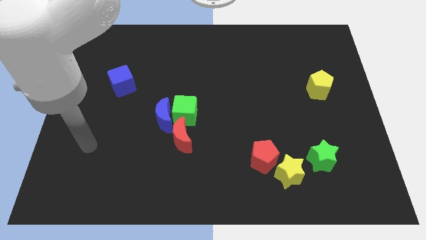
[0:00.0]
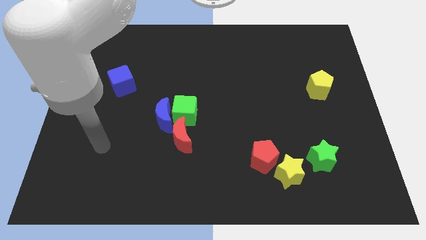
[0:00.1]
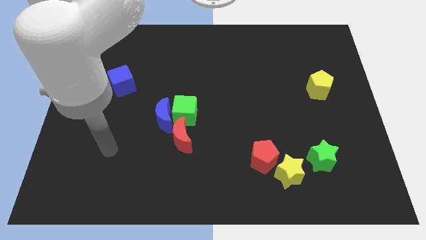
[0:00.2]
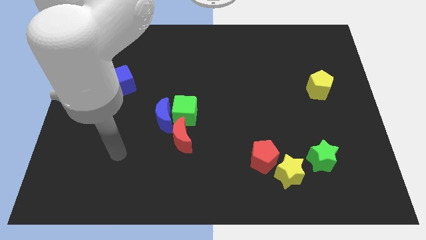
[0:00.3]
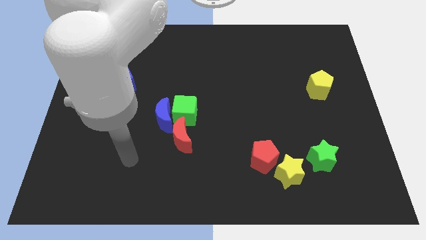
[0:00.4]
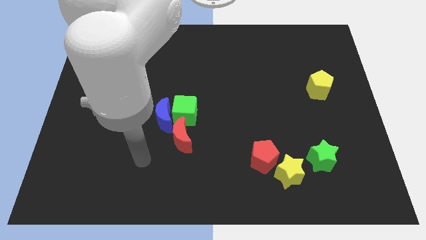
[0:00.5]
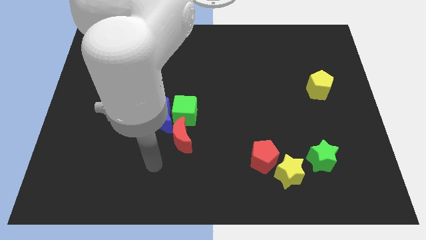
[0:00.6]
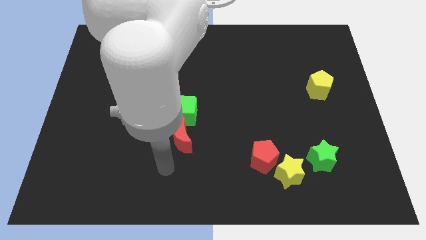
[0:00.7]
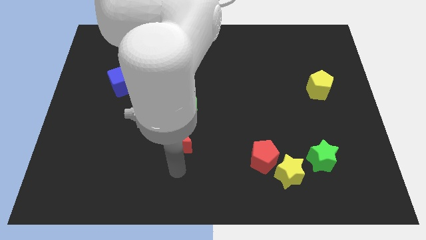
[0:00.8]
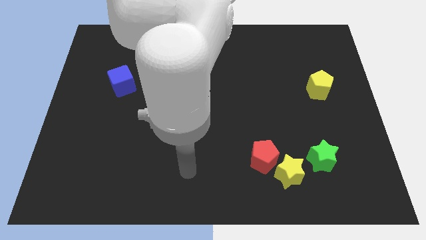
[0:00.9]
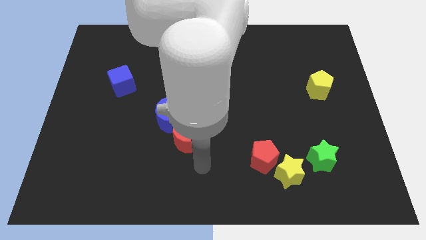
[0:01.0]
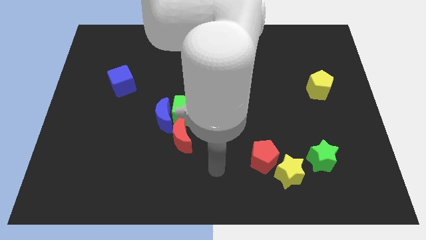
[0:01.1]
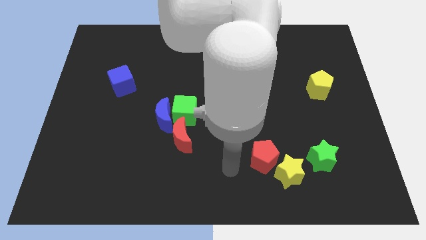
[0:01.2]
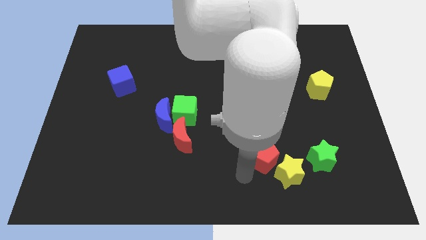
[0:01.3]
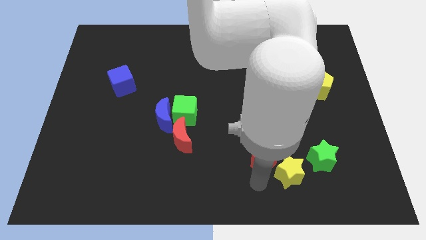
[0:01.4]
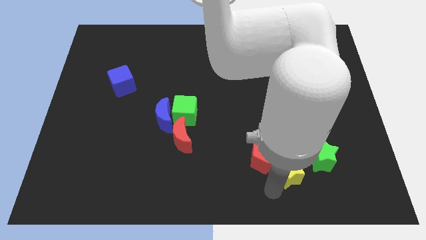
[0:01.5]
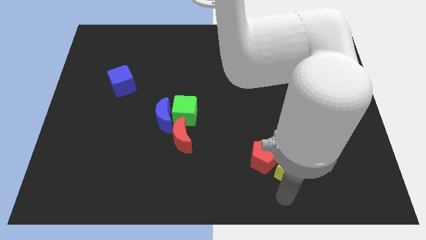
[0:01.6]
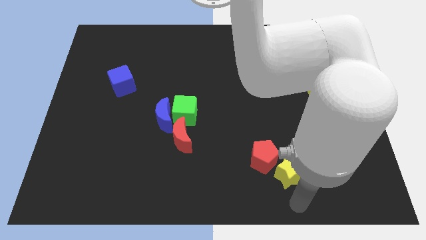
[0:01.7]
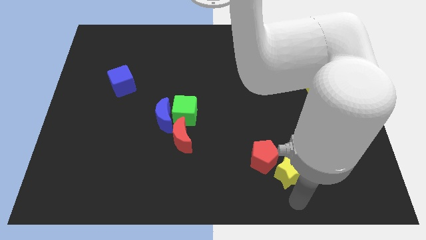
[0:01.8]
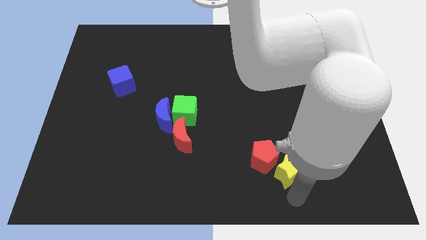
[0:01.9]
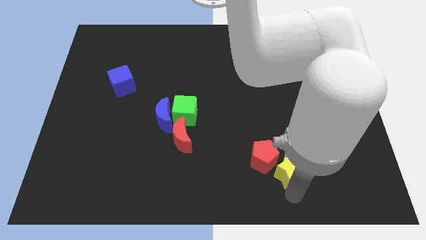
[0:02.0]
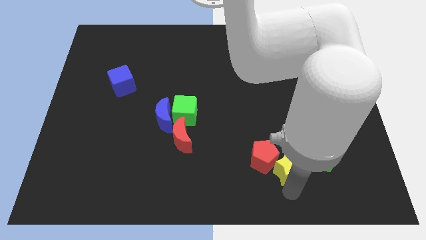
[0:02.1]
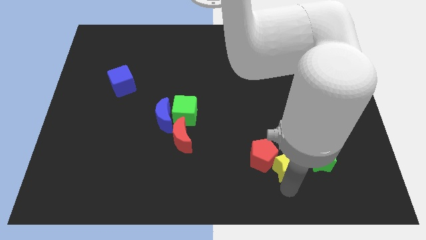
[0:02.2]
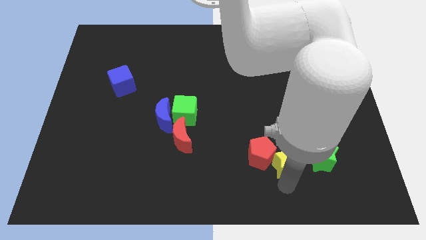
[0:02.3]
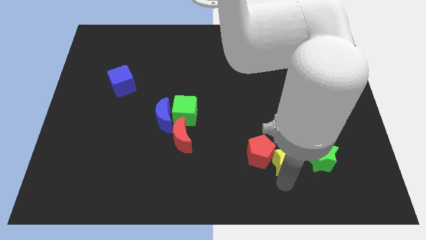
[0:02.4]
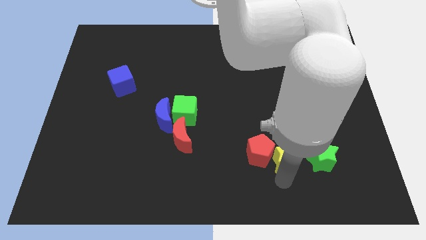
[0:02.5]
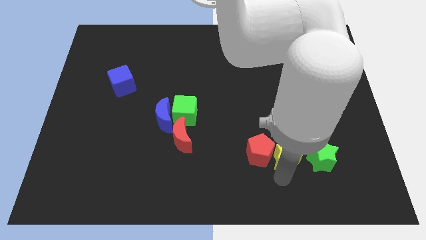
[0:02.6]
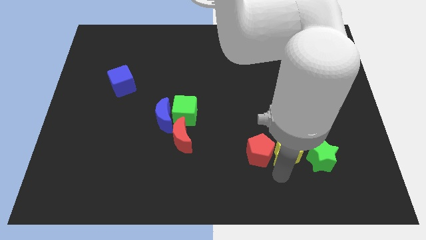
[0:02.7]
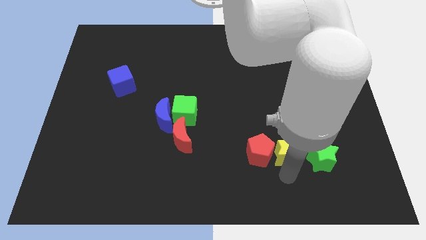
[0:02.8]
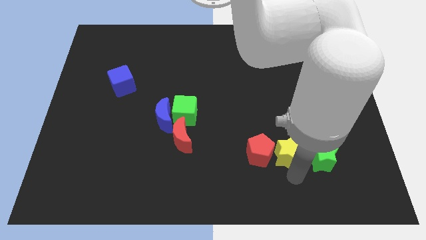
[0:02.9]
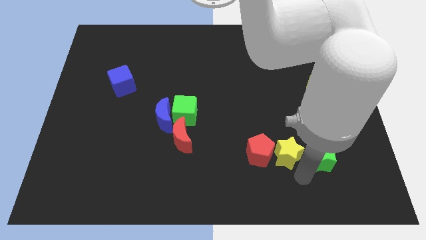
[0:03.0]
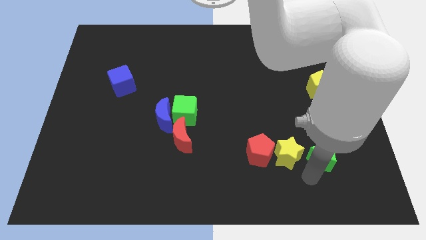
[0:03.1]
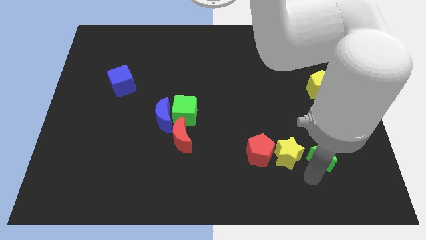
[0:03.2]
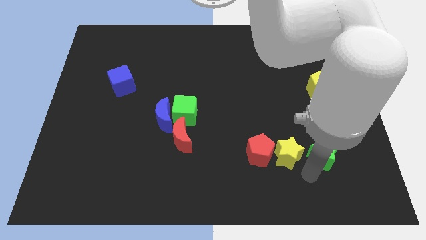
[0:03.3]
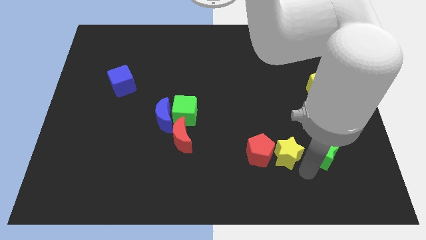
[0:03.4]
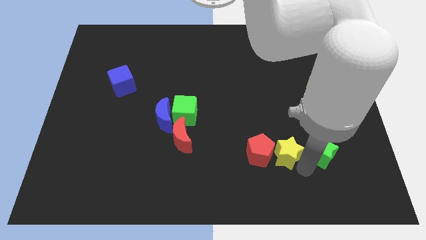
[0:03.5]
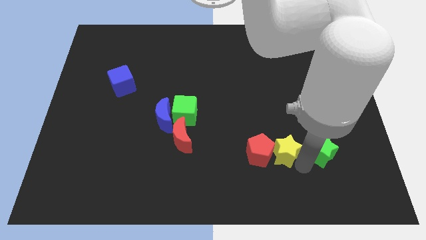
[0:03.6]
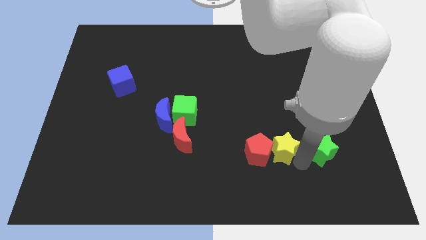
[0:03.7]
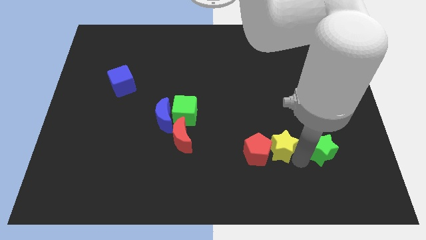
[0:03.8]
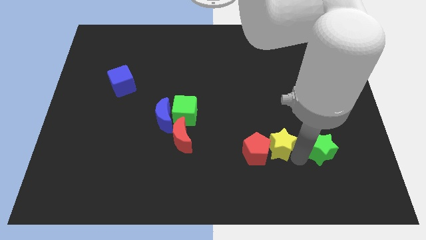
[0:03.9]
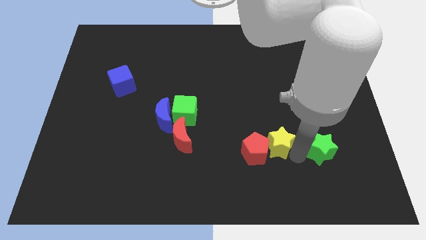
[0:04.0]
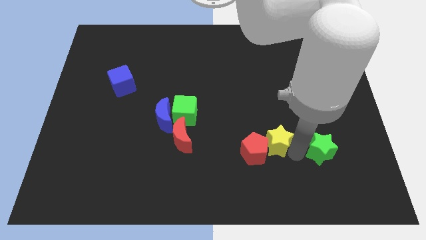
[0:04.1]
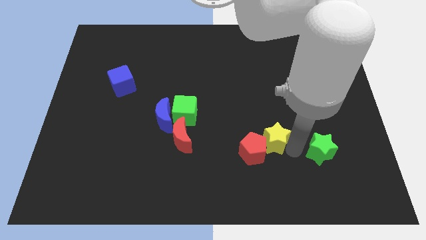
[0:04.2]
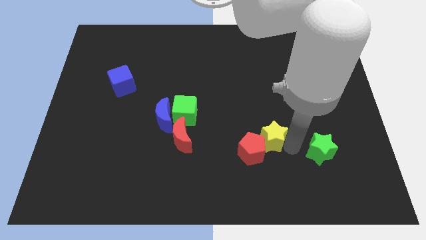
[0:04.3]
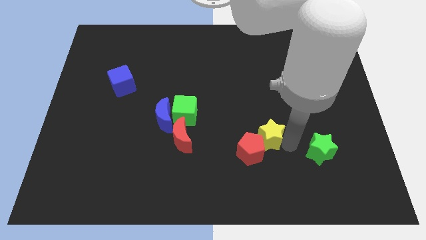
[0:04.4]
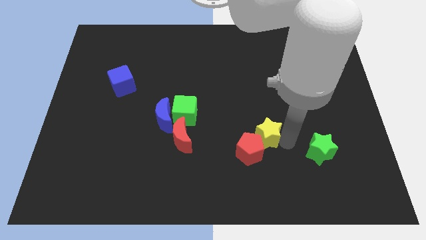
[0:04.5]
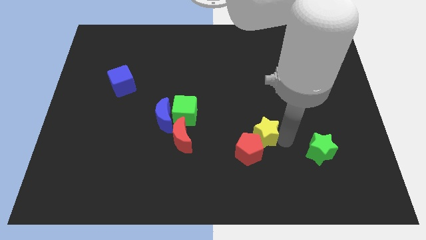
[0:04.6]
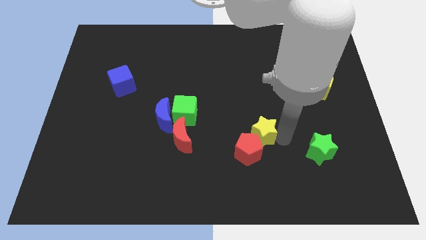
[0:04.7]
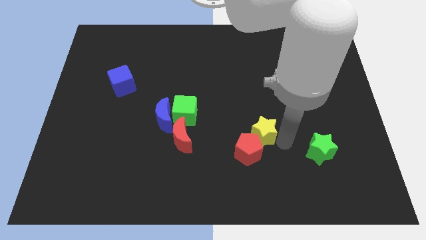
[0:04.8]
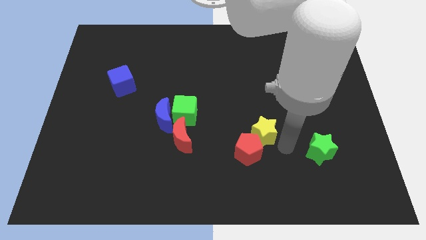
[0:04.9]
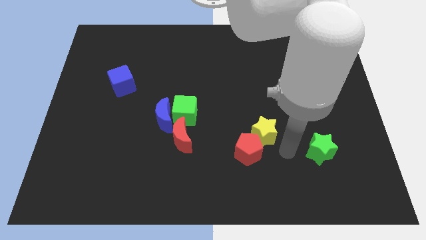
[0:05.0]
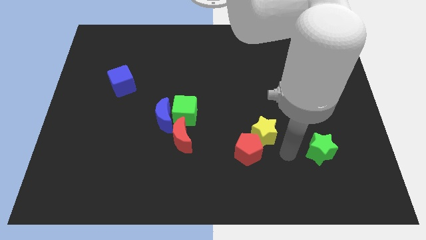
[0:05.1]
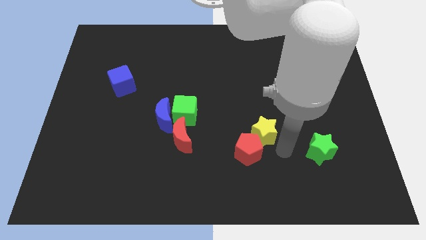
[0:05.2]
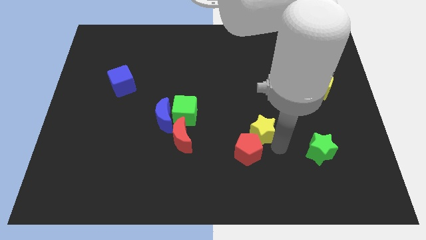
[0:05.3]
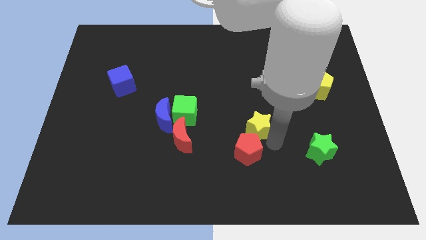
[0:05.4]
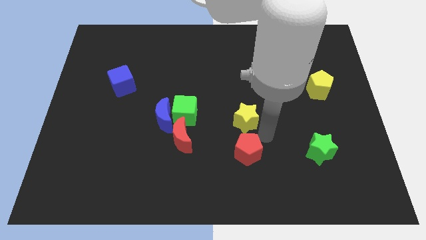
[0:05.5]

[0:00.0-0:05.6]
slide the yellow star to the center

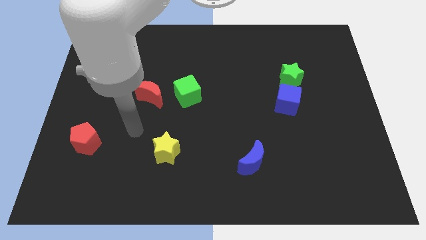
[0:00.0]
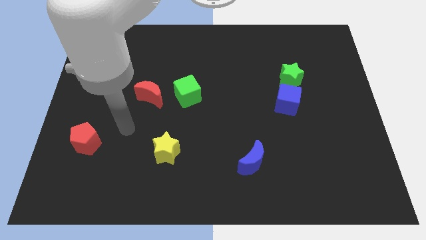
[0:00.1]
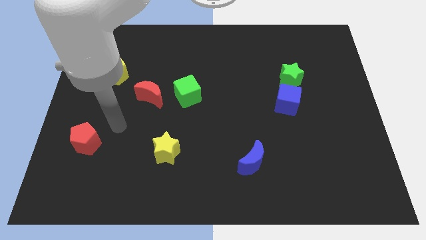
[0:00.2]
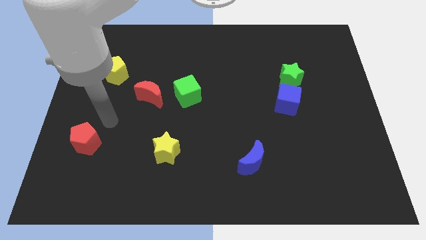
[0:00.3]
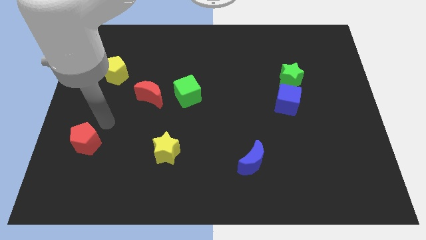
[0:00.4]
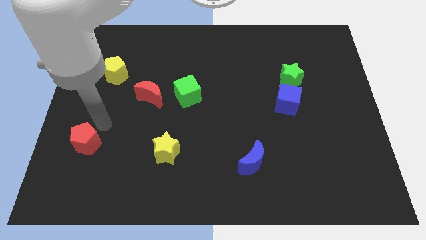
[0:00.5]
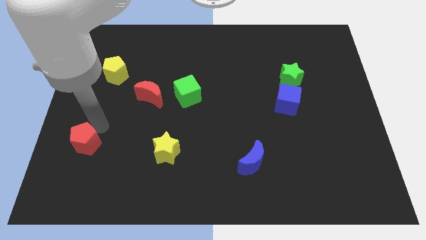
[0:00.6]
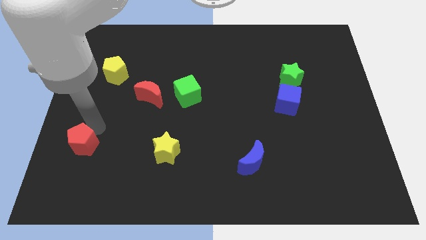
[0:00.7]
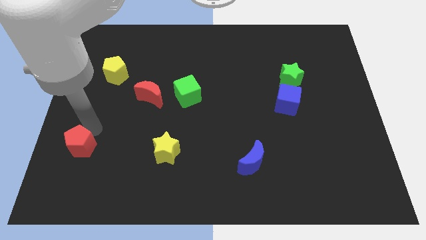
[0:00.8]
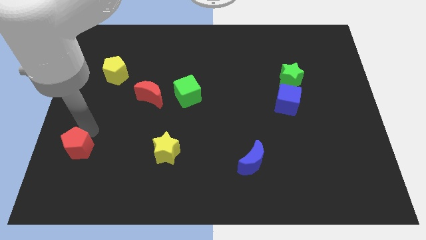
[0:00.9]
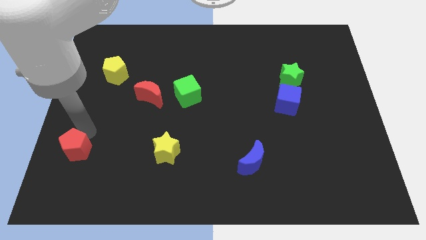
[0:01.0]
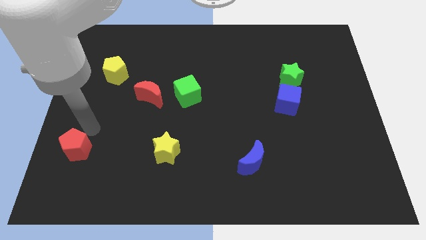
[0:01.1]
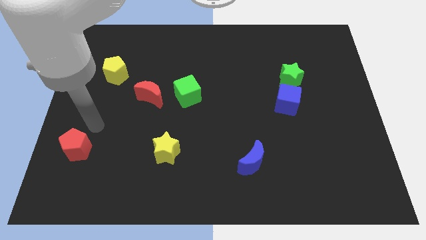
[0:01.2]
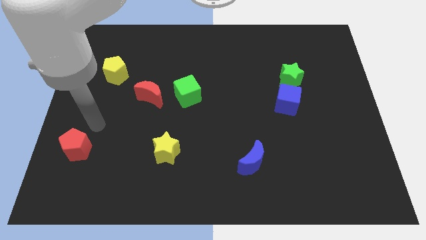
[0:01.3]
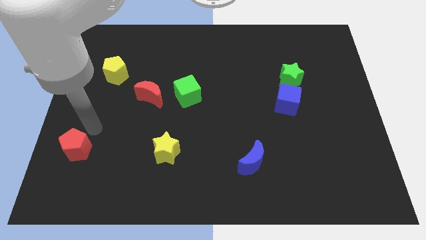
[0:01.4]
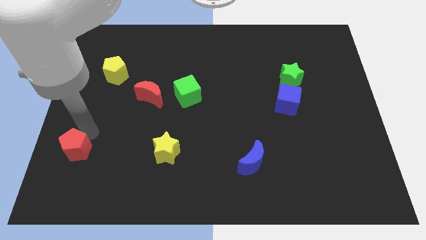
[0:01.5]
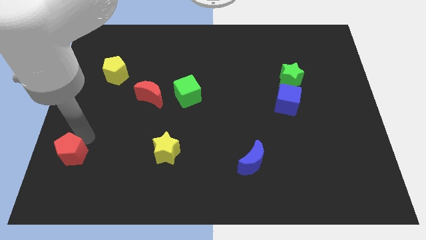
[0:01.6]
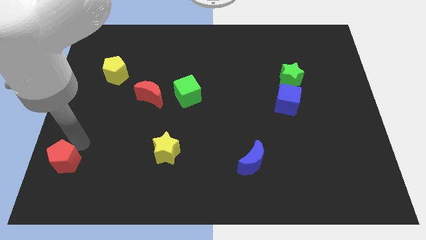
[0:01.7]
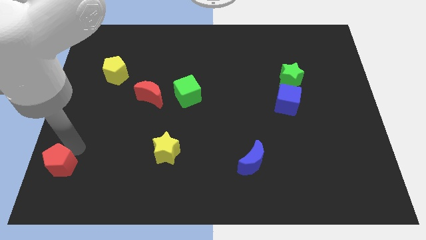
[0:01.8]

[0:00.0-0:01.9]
put the red pentagon to the lower left corner

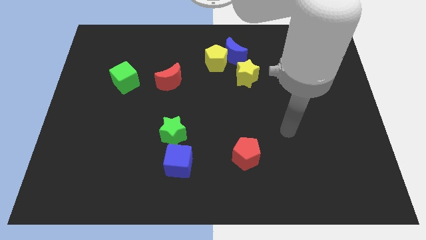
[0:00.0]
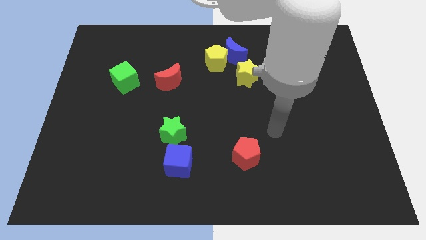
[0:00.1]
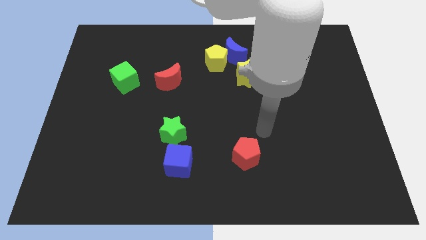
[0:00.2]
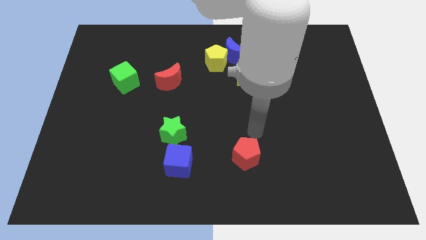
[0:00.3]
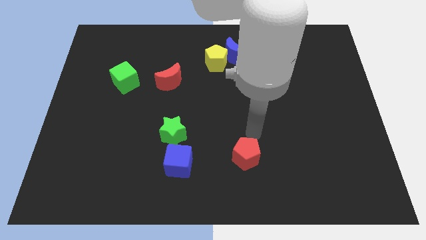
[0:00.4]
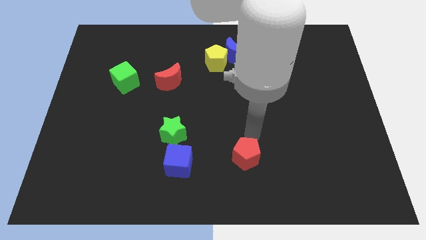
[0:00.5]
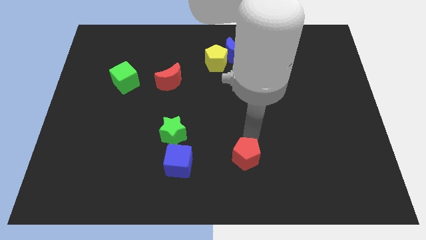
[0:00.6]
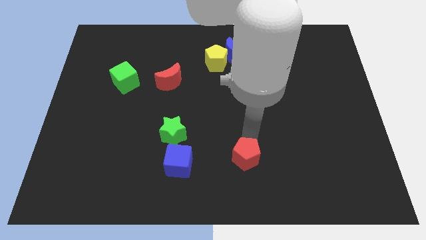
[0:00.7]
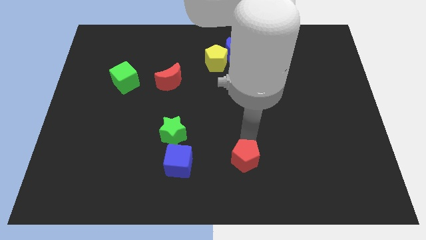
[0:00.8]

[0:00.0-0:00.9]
slide the red pentagon to the bottom
